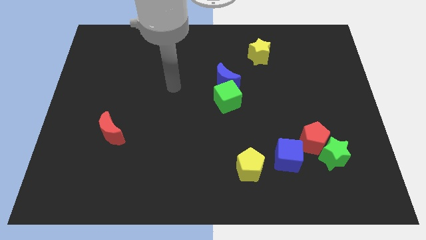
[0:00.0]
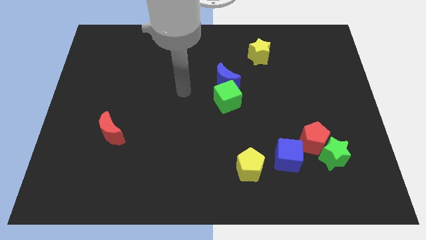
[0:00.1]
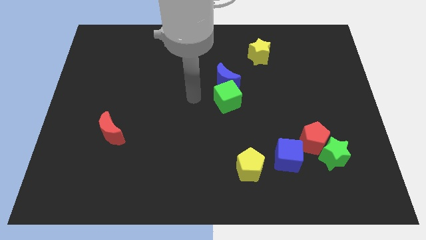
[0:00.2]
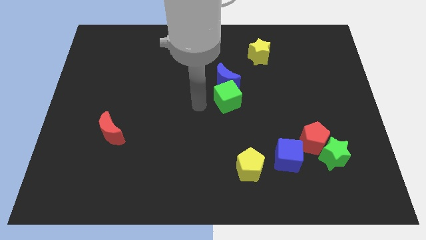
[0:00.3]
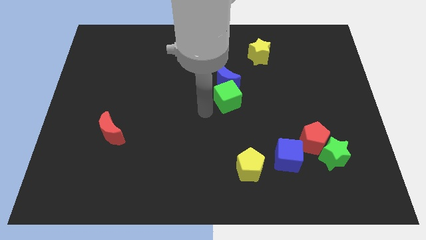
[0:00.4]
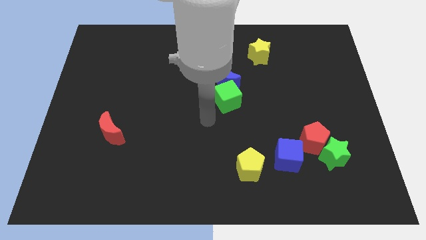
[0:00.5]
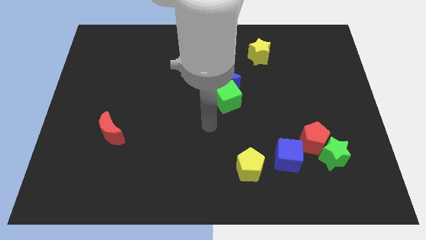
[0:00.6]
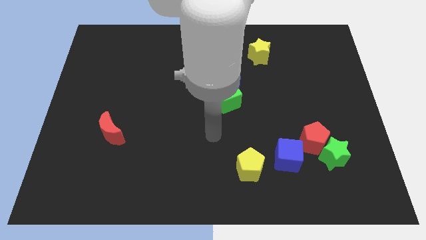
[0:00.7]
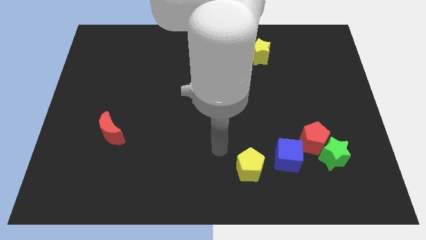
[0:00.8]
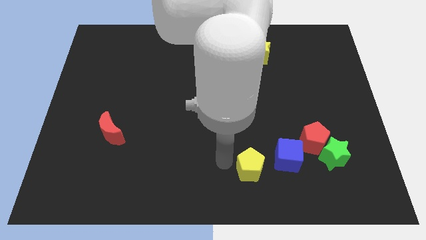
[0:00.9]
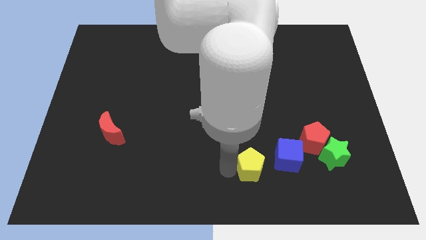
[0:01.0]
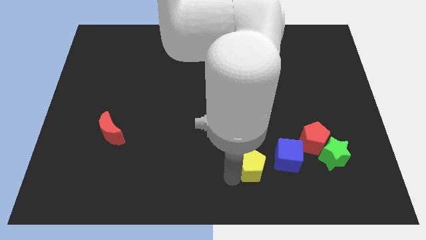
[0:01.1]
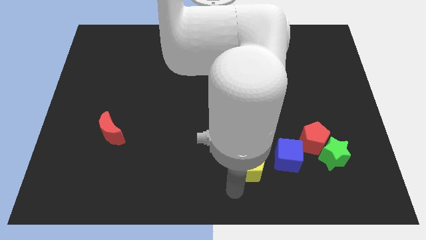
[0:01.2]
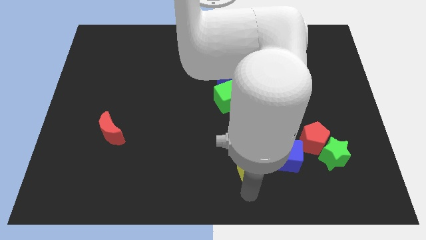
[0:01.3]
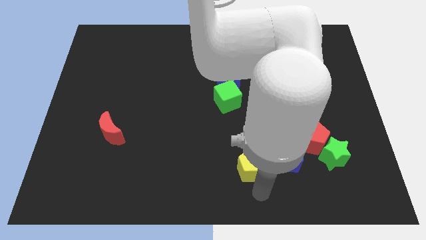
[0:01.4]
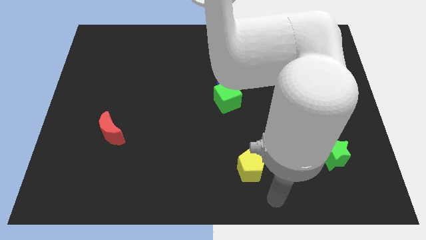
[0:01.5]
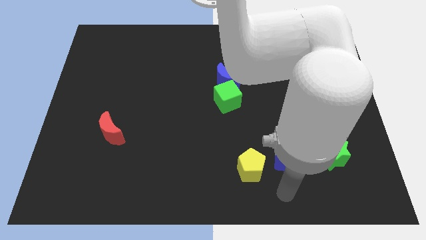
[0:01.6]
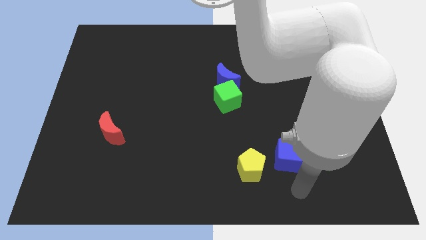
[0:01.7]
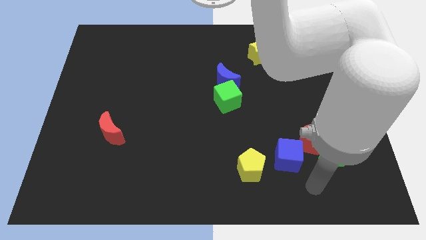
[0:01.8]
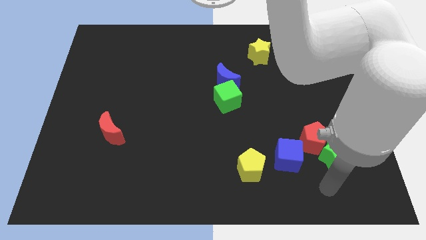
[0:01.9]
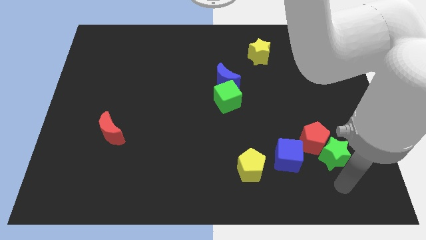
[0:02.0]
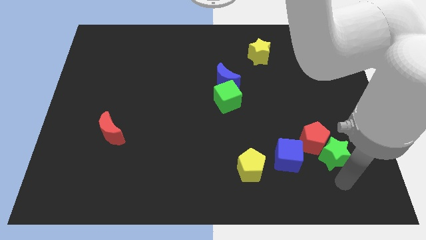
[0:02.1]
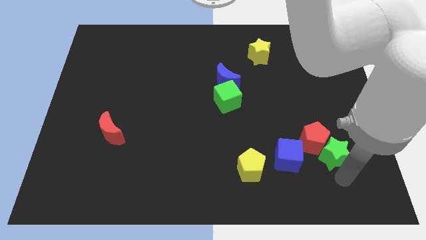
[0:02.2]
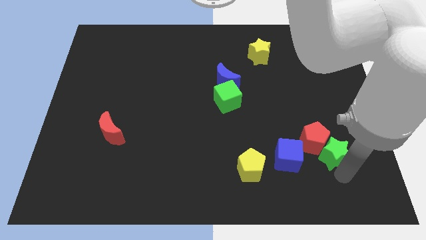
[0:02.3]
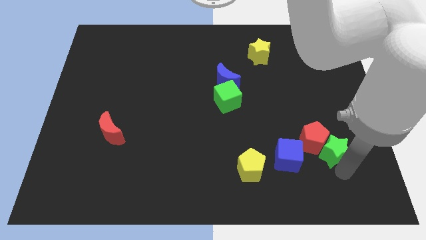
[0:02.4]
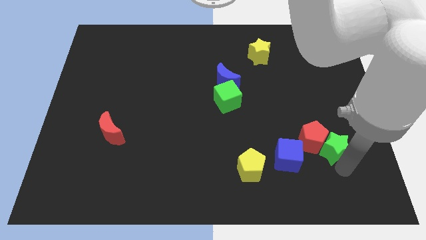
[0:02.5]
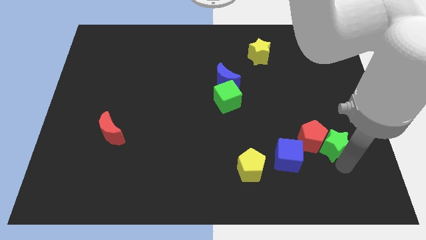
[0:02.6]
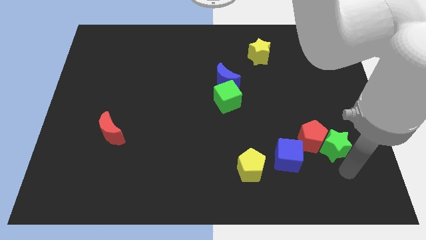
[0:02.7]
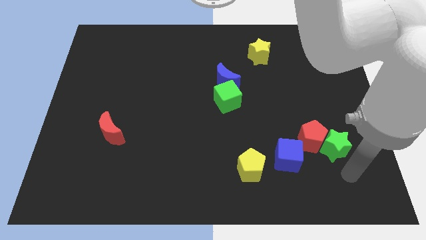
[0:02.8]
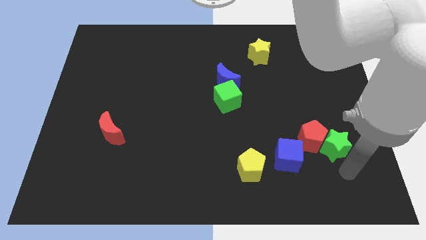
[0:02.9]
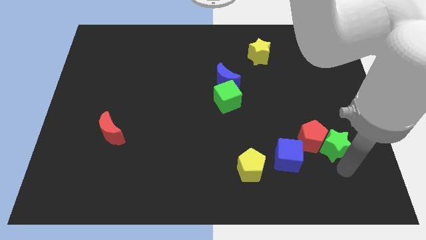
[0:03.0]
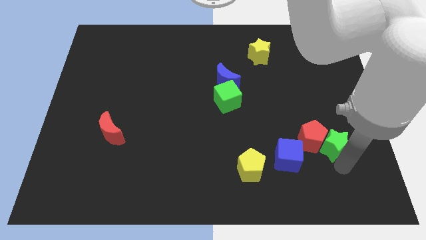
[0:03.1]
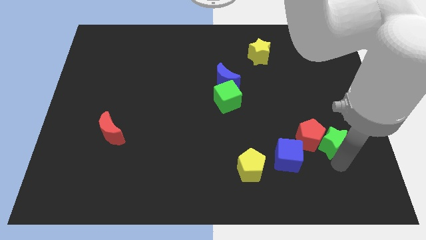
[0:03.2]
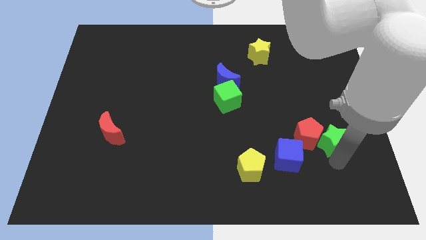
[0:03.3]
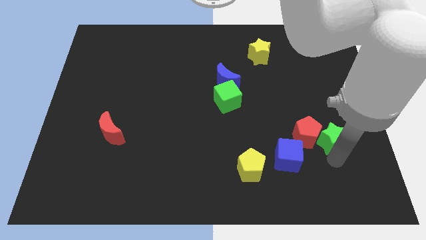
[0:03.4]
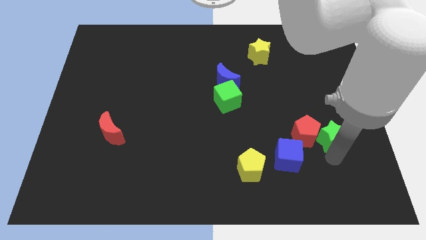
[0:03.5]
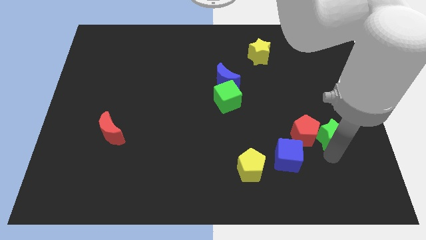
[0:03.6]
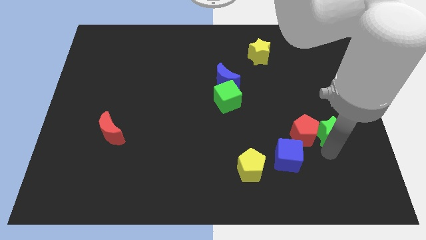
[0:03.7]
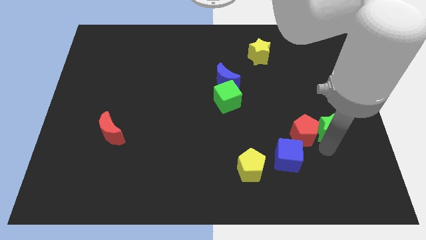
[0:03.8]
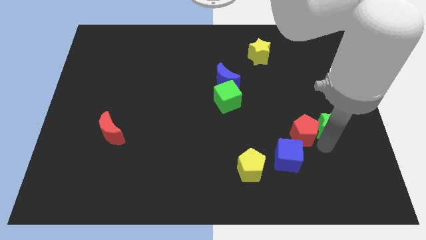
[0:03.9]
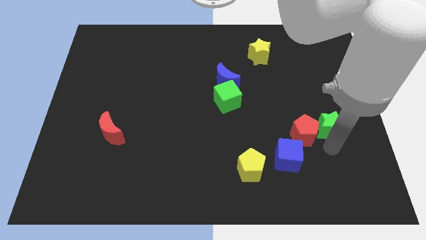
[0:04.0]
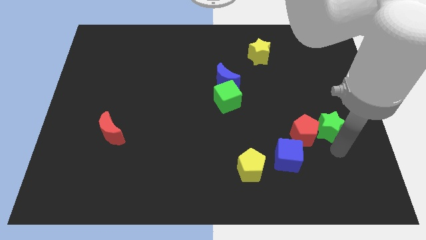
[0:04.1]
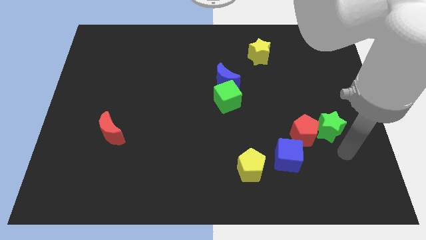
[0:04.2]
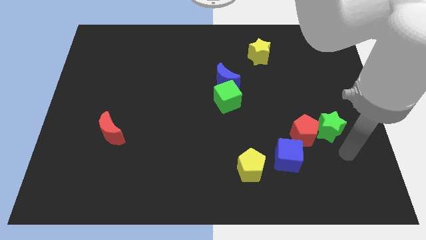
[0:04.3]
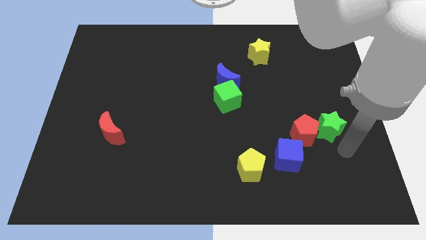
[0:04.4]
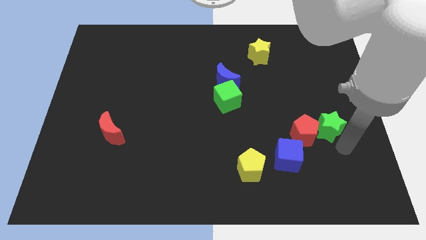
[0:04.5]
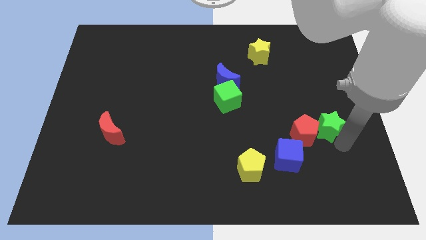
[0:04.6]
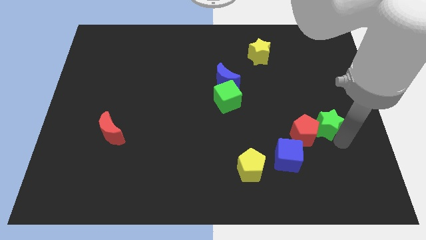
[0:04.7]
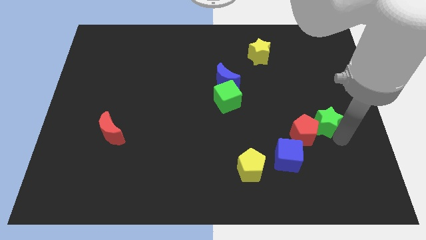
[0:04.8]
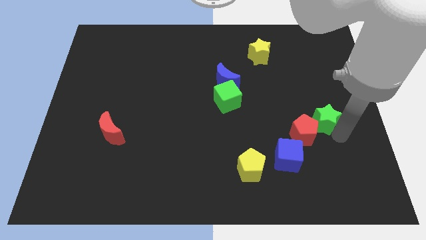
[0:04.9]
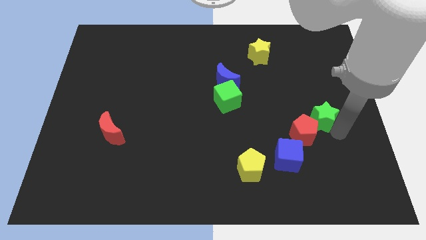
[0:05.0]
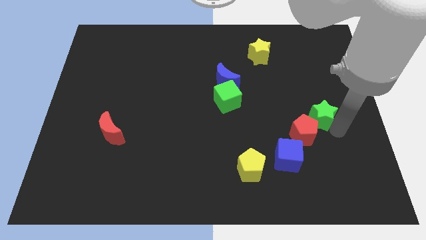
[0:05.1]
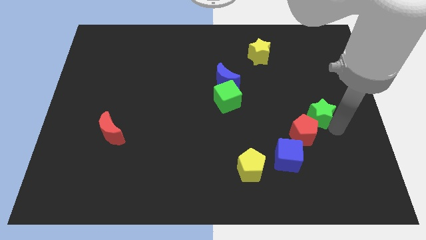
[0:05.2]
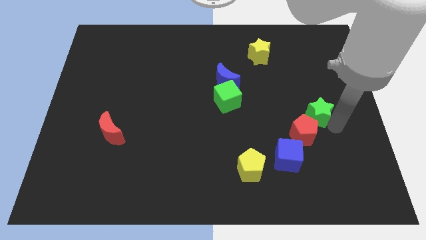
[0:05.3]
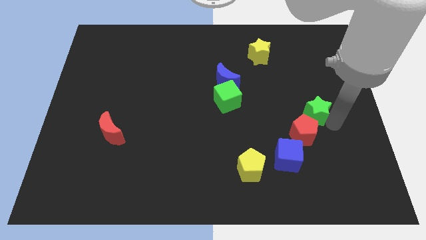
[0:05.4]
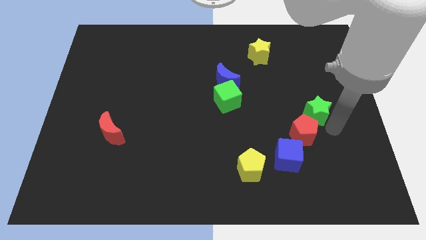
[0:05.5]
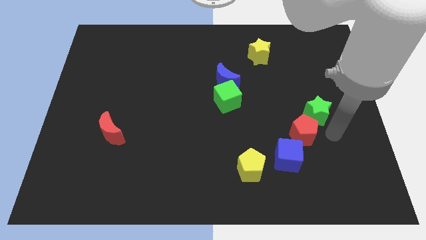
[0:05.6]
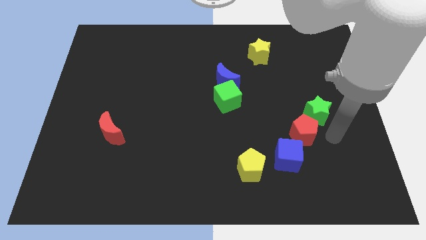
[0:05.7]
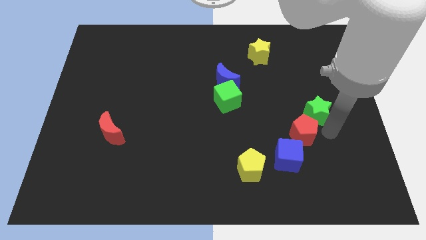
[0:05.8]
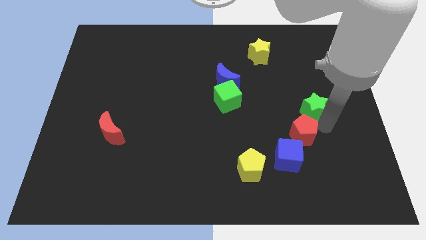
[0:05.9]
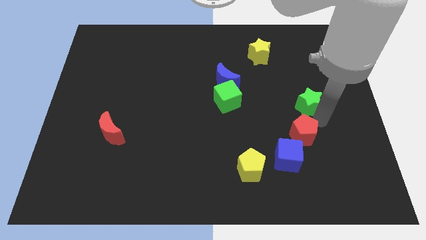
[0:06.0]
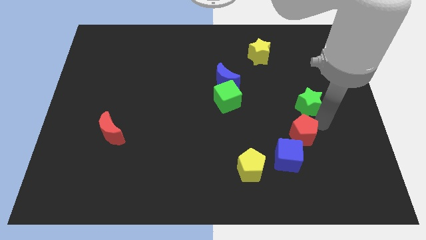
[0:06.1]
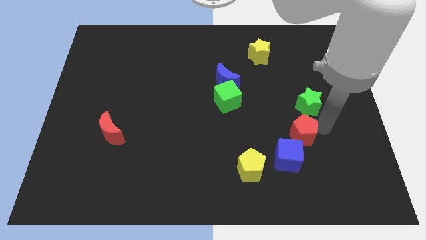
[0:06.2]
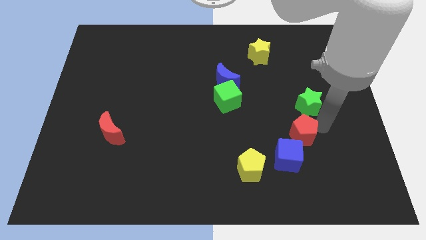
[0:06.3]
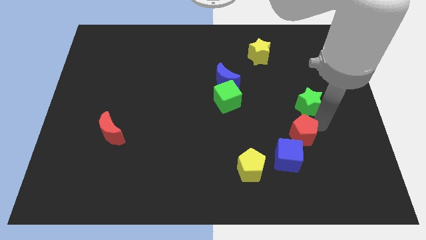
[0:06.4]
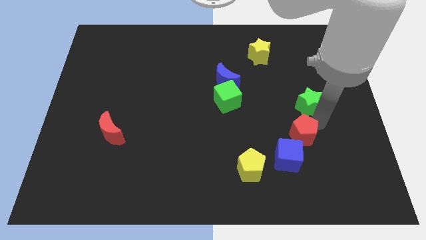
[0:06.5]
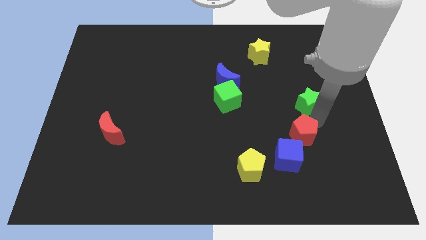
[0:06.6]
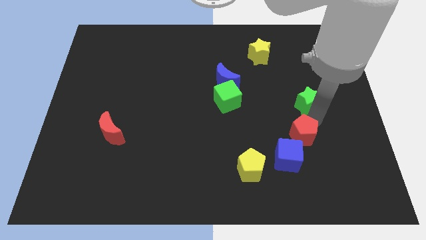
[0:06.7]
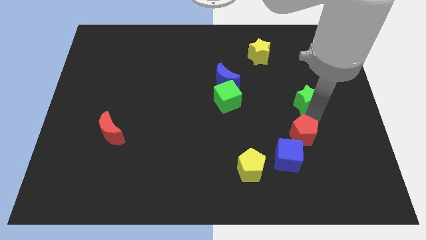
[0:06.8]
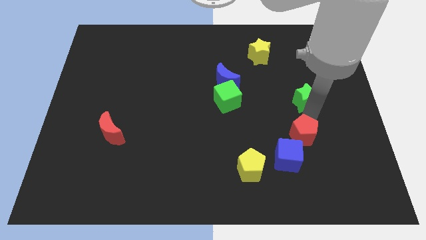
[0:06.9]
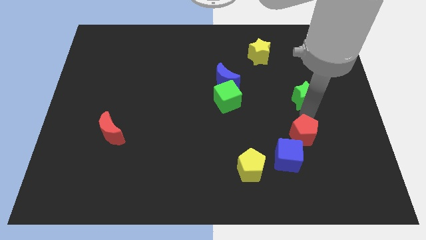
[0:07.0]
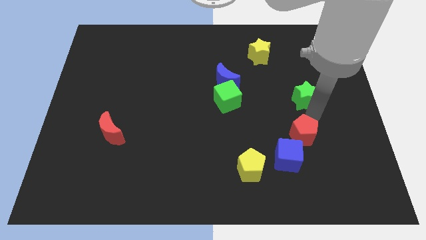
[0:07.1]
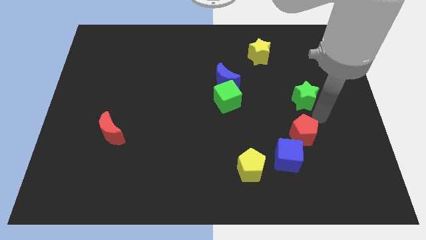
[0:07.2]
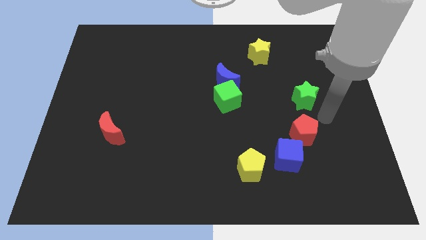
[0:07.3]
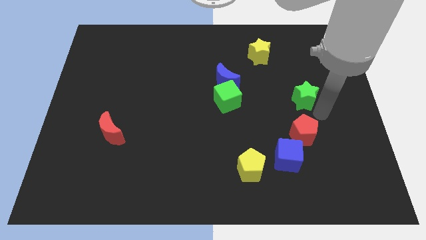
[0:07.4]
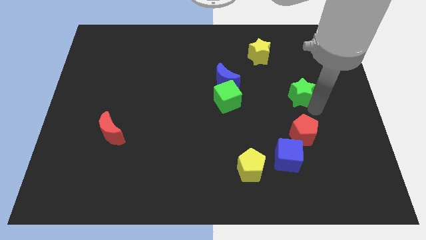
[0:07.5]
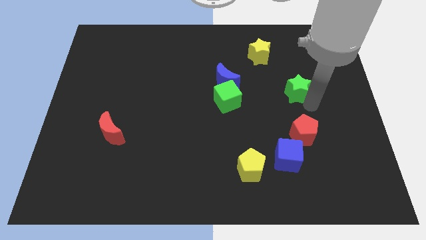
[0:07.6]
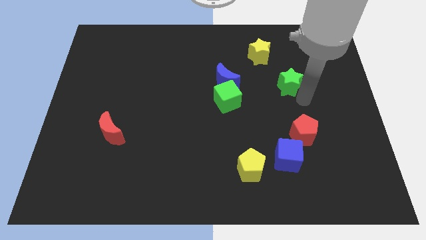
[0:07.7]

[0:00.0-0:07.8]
put the green star to the bottom right of the yellow star
